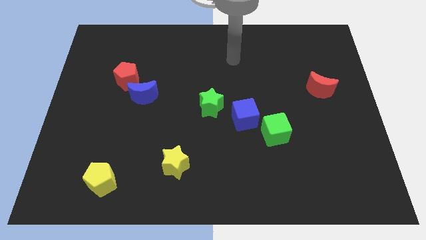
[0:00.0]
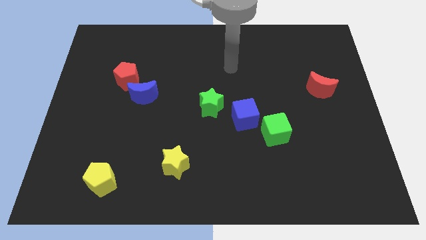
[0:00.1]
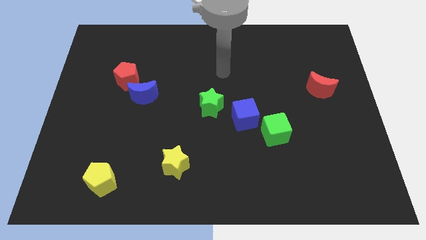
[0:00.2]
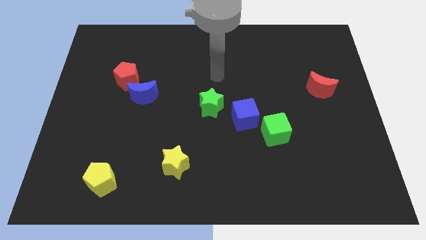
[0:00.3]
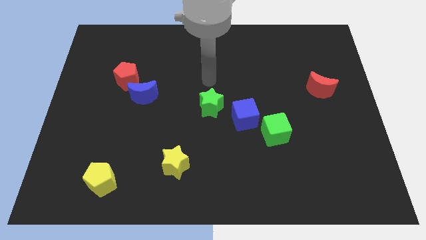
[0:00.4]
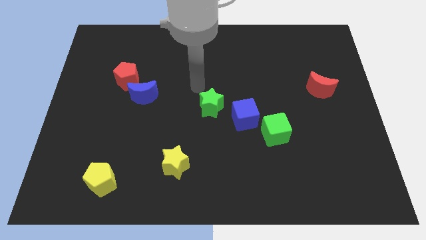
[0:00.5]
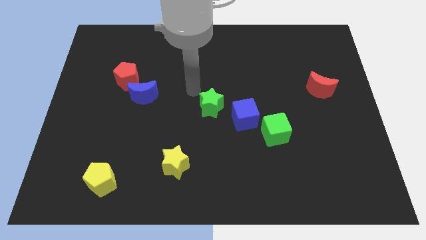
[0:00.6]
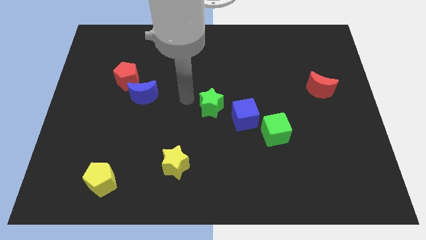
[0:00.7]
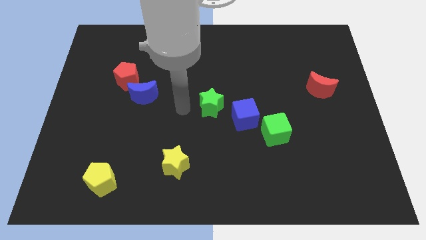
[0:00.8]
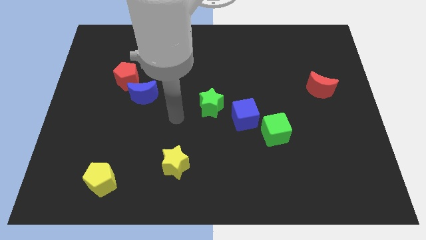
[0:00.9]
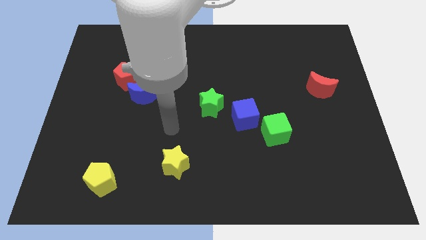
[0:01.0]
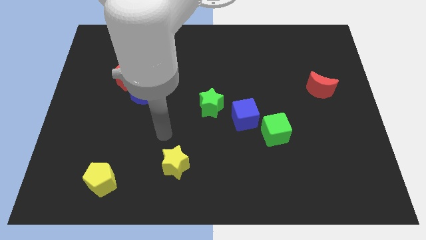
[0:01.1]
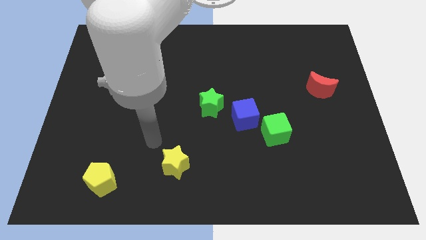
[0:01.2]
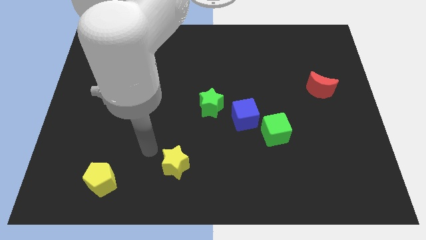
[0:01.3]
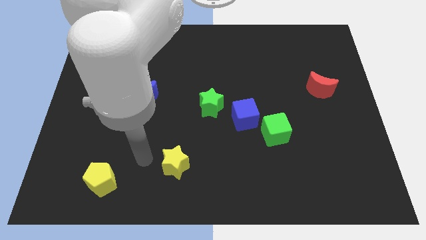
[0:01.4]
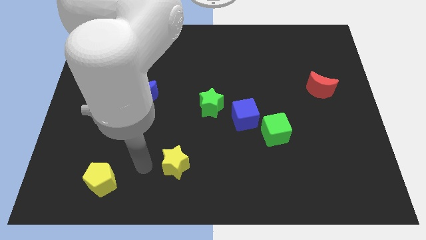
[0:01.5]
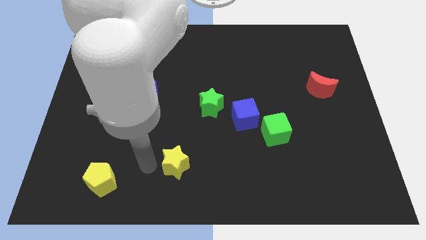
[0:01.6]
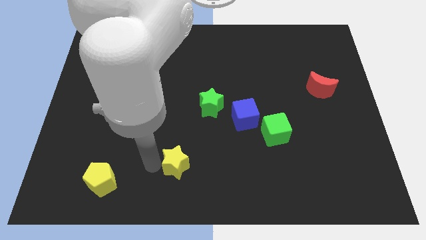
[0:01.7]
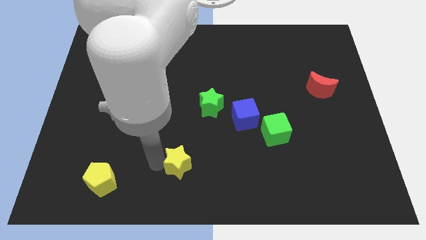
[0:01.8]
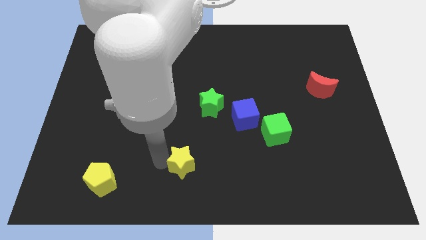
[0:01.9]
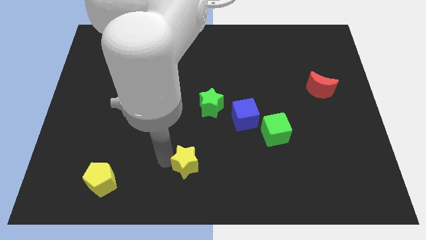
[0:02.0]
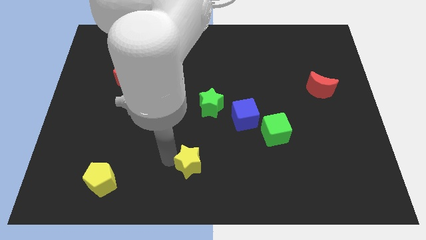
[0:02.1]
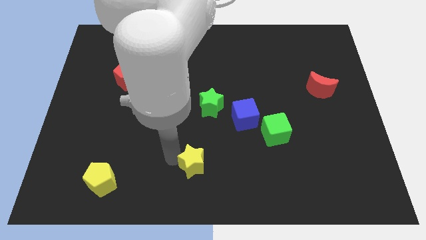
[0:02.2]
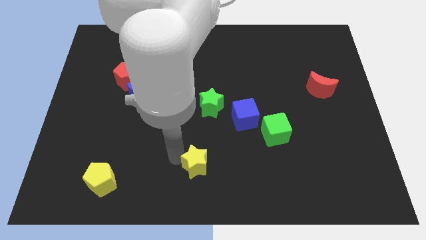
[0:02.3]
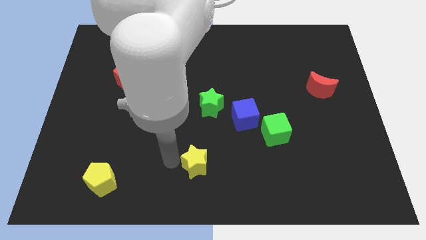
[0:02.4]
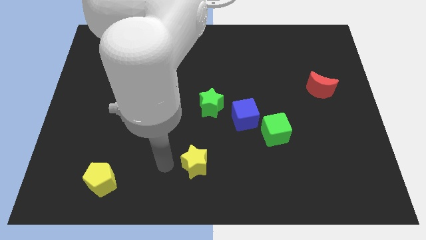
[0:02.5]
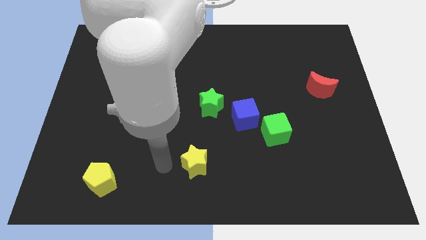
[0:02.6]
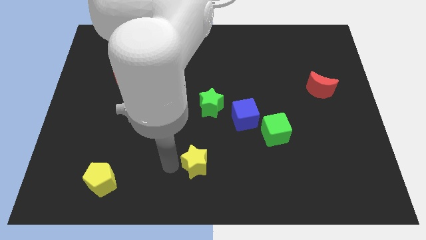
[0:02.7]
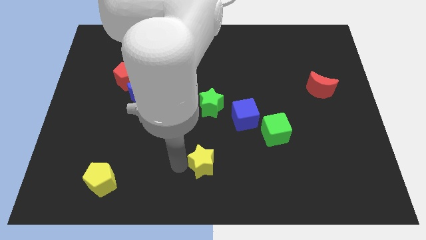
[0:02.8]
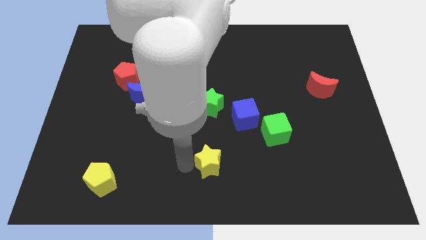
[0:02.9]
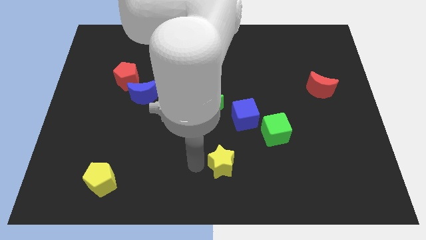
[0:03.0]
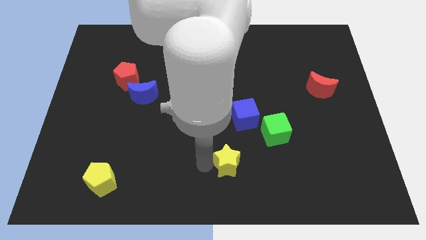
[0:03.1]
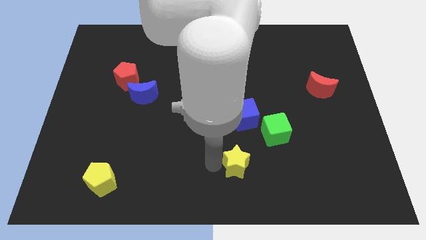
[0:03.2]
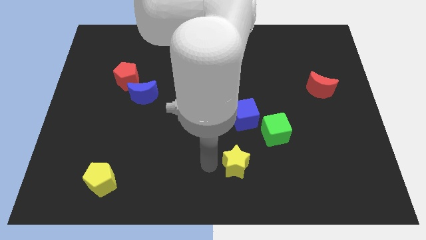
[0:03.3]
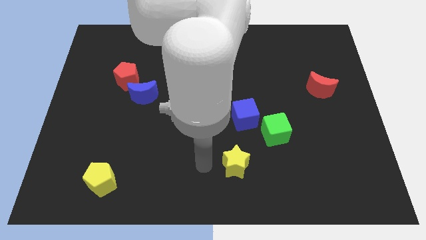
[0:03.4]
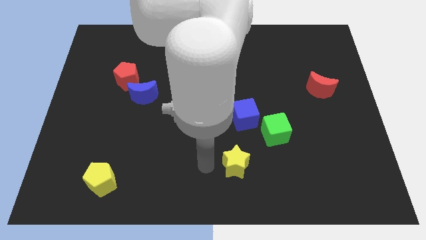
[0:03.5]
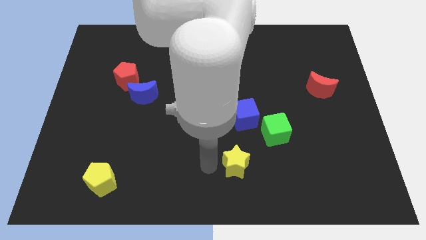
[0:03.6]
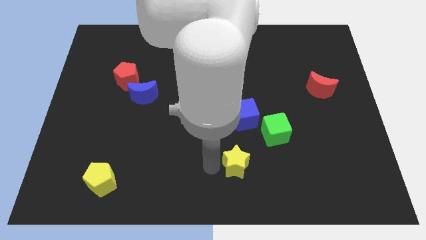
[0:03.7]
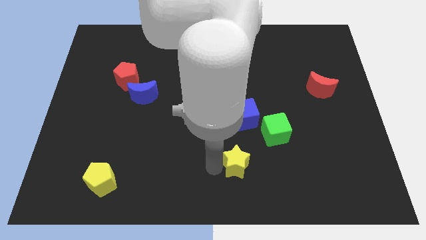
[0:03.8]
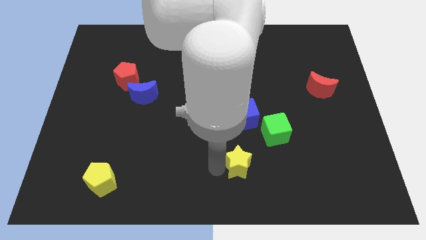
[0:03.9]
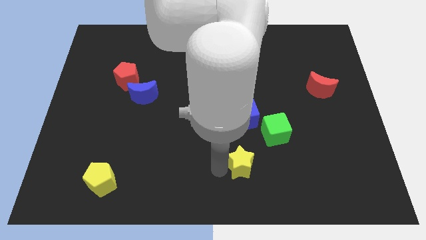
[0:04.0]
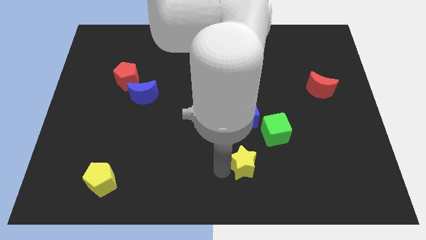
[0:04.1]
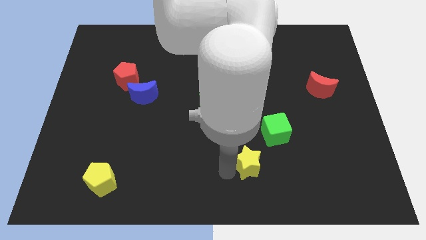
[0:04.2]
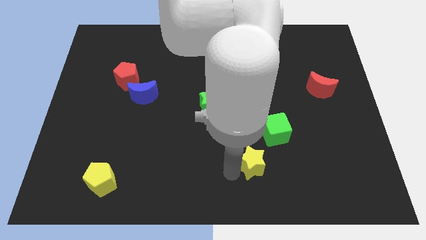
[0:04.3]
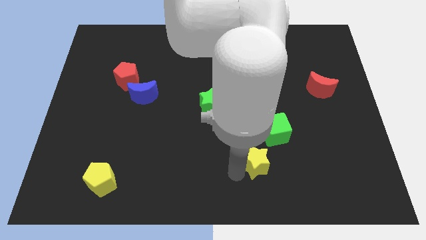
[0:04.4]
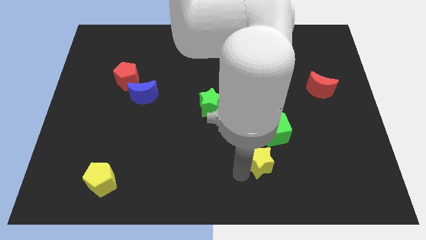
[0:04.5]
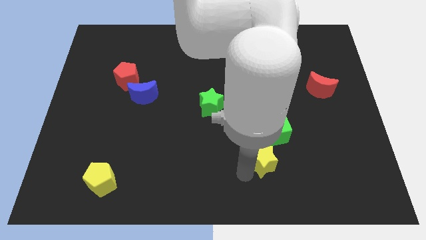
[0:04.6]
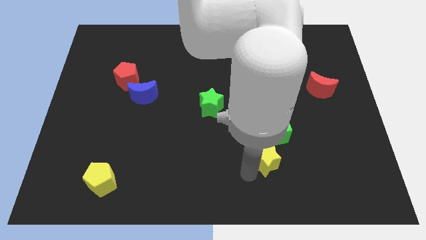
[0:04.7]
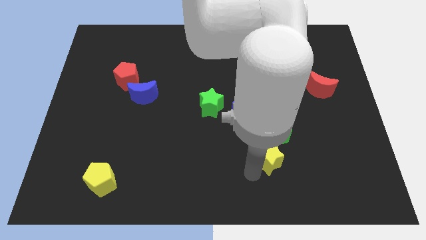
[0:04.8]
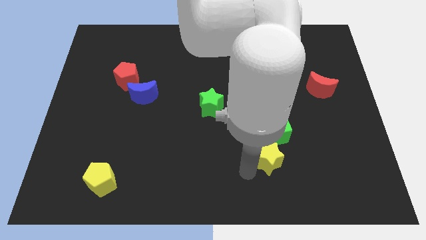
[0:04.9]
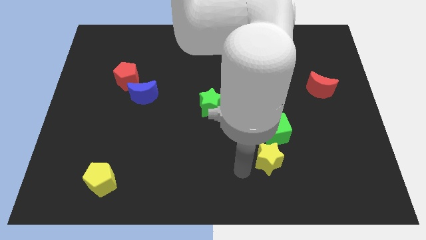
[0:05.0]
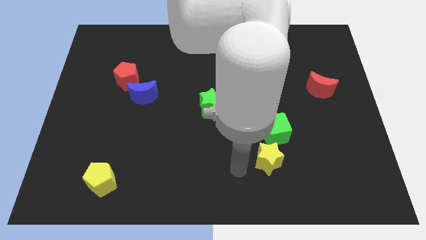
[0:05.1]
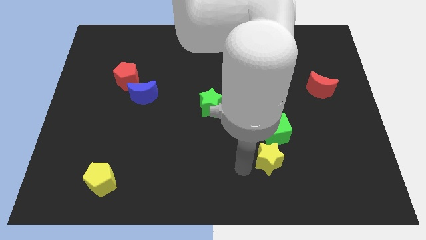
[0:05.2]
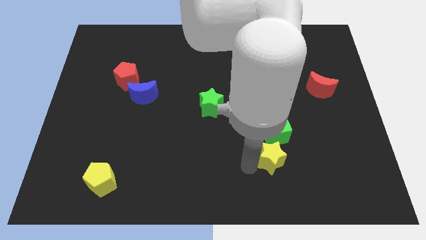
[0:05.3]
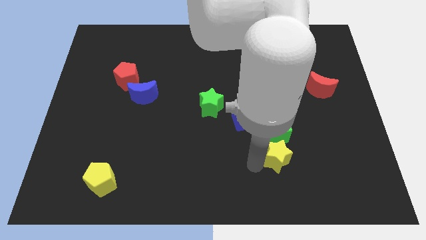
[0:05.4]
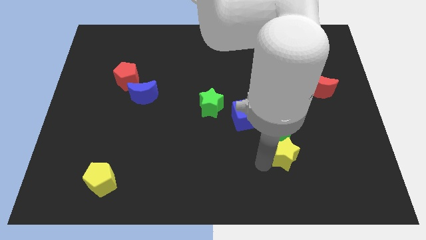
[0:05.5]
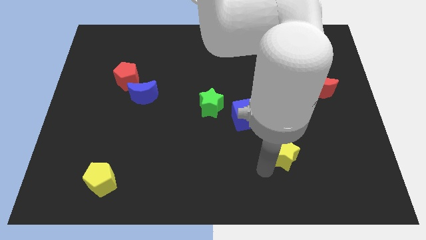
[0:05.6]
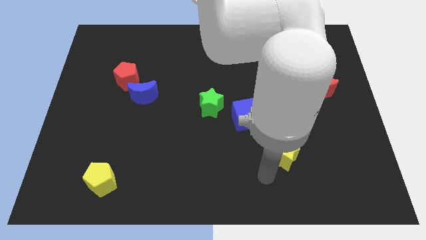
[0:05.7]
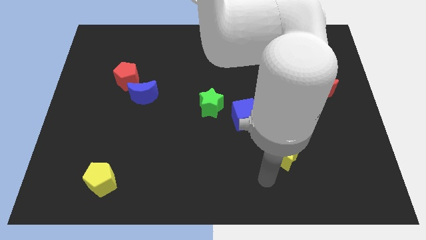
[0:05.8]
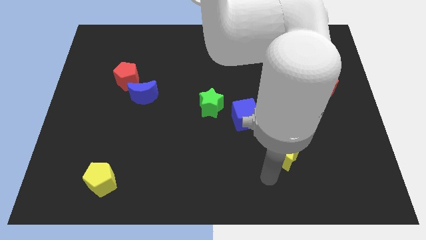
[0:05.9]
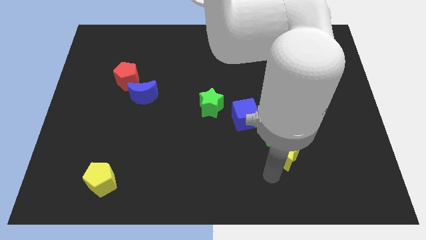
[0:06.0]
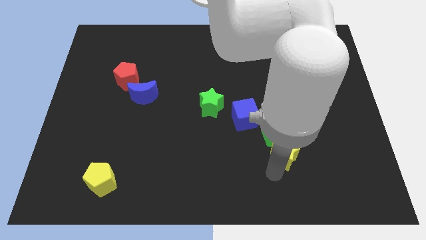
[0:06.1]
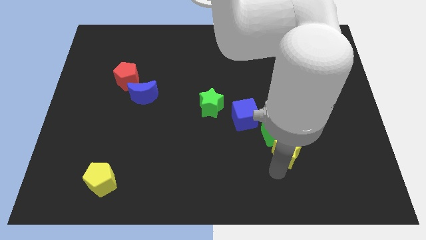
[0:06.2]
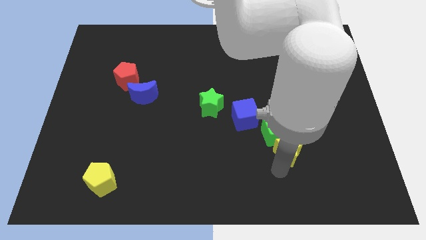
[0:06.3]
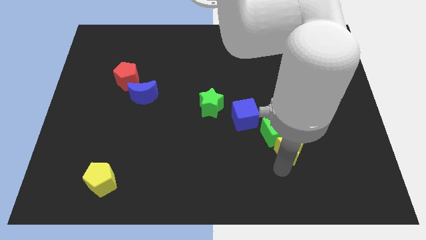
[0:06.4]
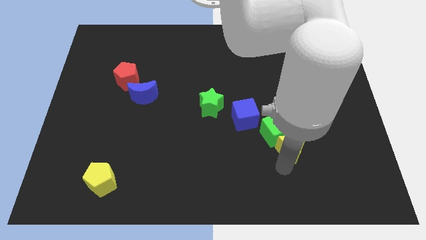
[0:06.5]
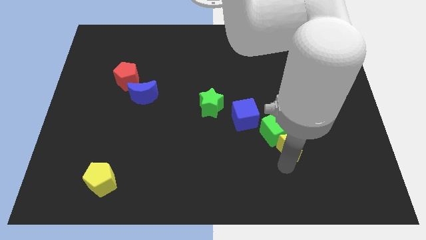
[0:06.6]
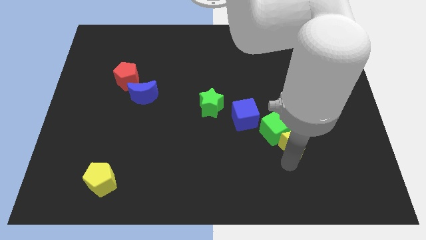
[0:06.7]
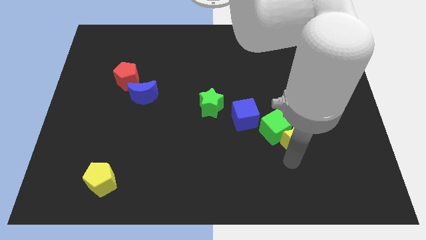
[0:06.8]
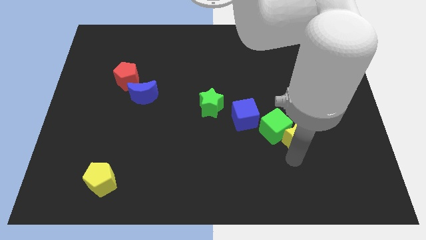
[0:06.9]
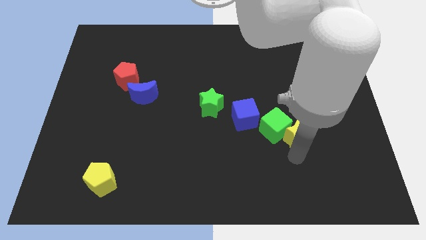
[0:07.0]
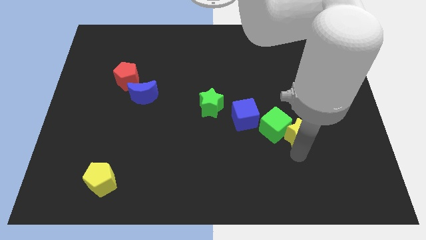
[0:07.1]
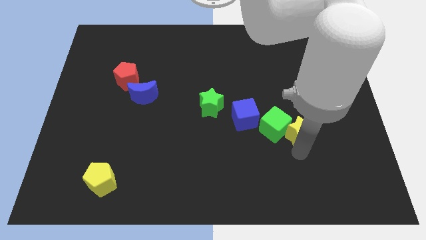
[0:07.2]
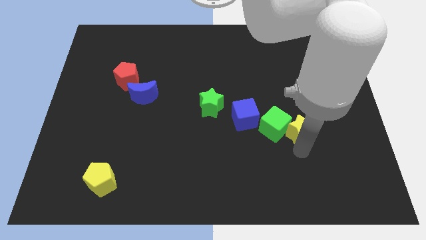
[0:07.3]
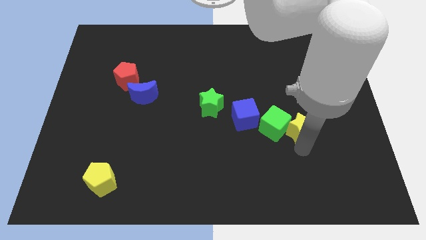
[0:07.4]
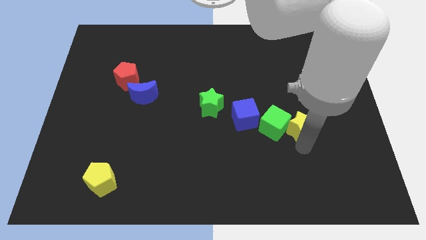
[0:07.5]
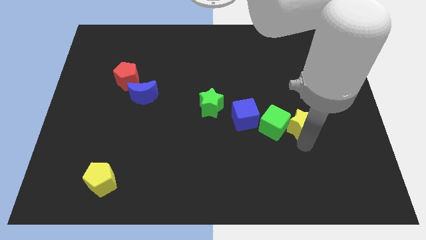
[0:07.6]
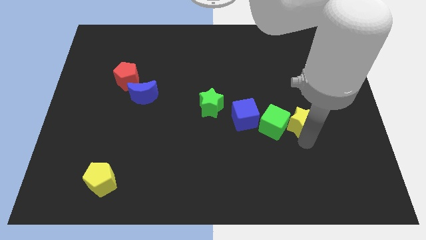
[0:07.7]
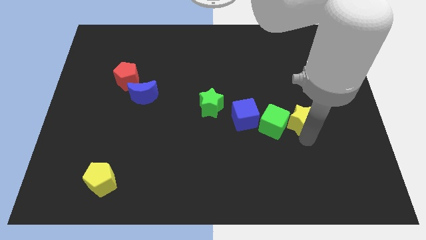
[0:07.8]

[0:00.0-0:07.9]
put the yellow star to the bottom left of the red moon
